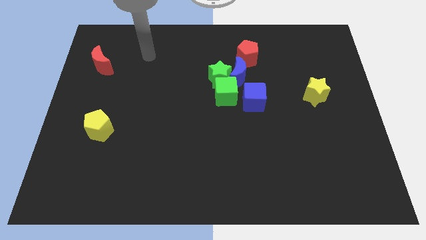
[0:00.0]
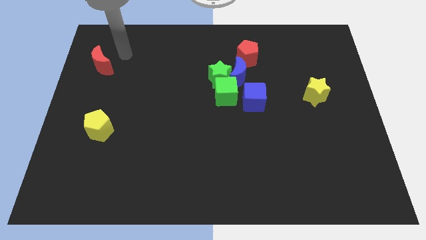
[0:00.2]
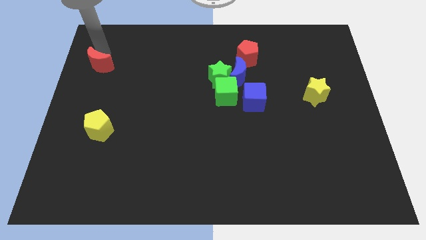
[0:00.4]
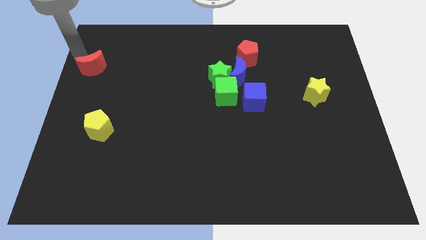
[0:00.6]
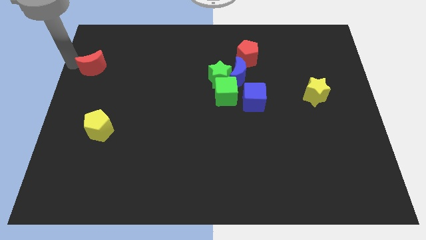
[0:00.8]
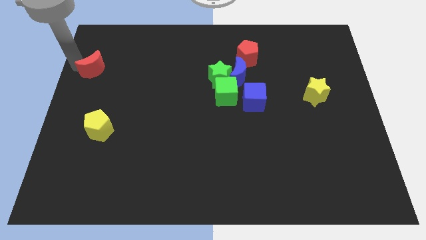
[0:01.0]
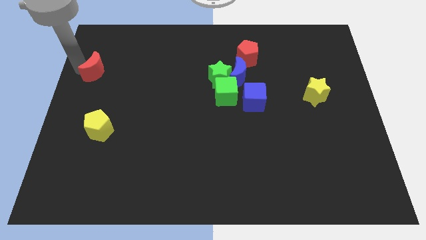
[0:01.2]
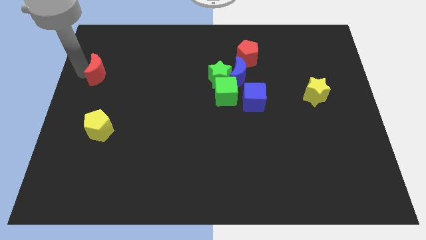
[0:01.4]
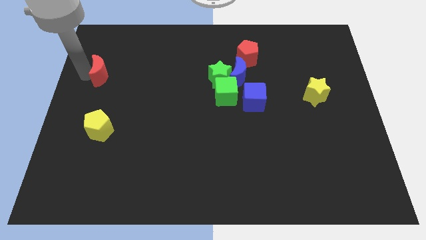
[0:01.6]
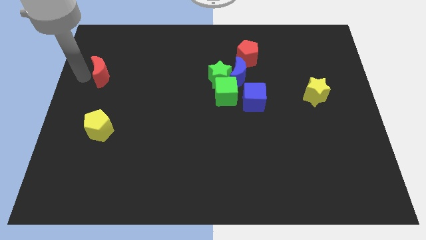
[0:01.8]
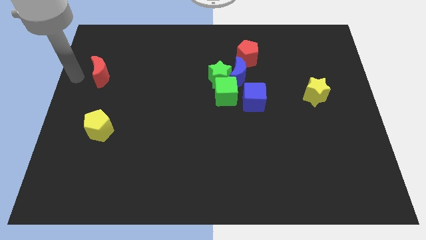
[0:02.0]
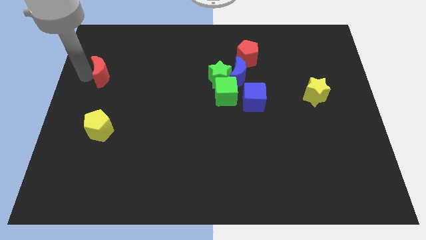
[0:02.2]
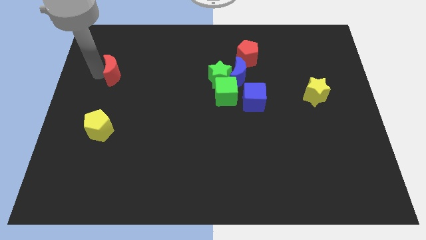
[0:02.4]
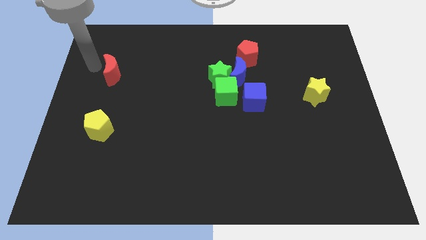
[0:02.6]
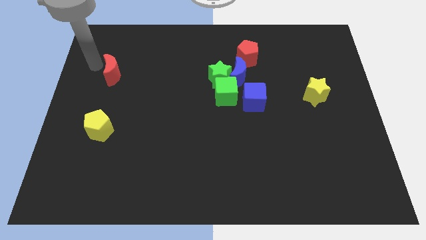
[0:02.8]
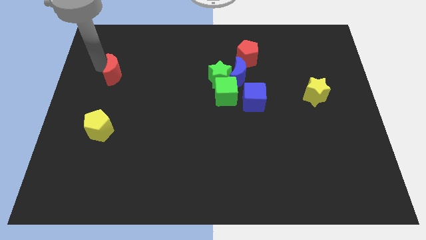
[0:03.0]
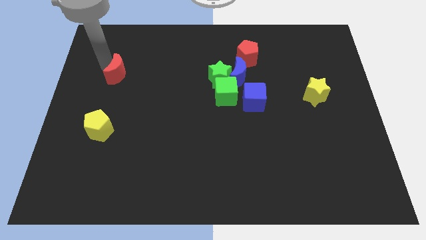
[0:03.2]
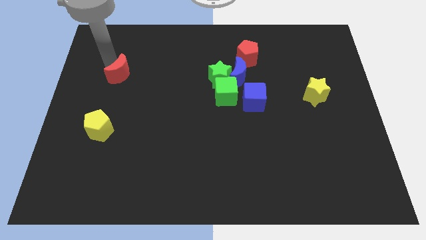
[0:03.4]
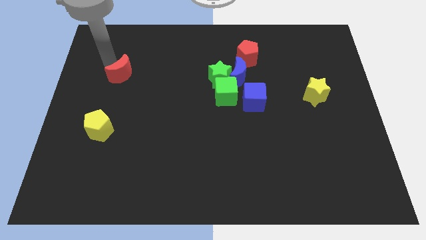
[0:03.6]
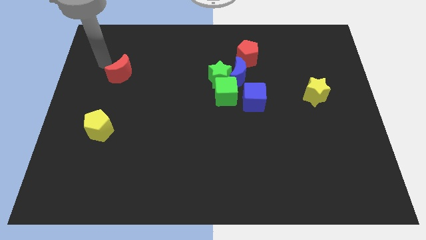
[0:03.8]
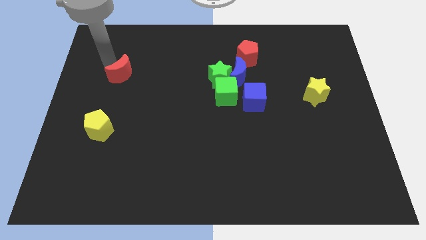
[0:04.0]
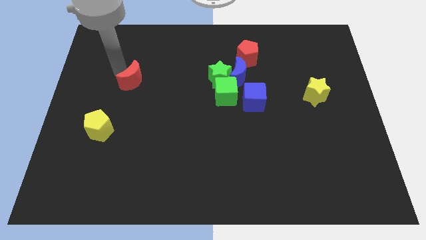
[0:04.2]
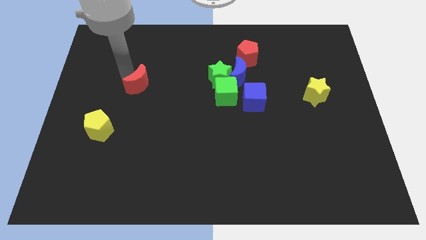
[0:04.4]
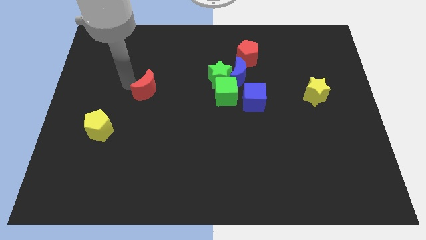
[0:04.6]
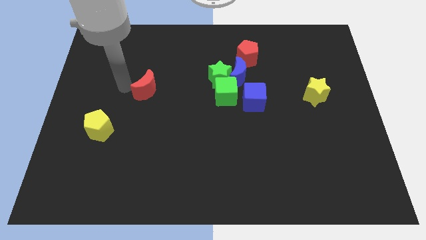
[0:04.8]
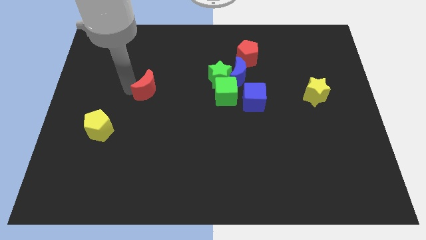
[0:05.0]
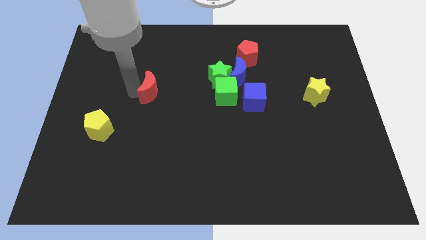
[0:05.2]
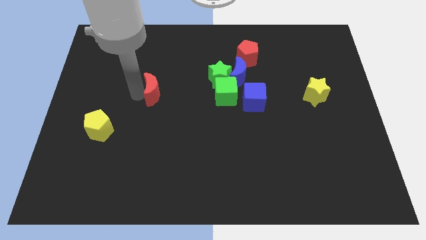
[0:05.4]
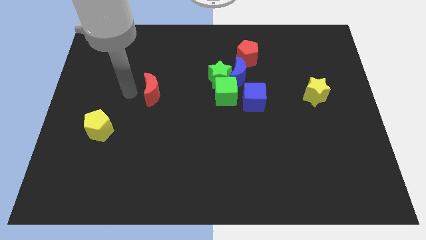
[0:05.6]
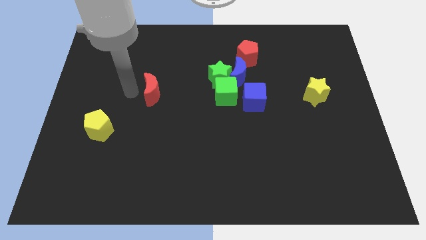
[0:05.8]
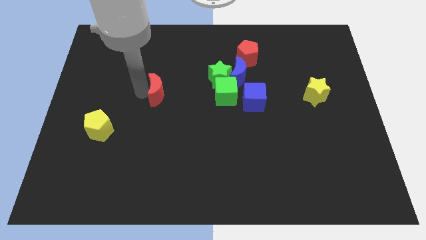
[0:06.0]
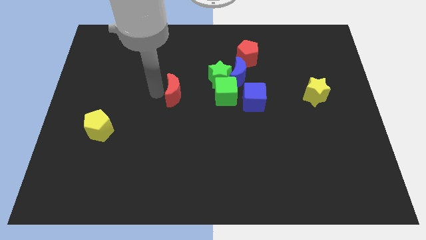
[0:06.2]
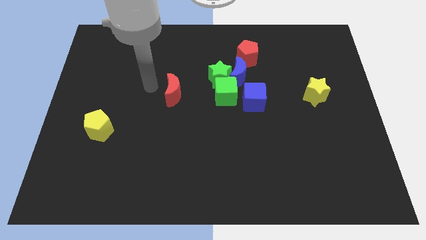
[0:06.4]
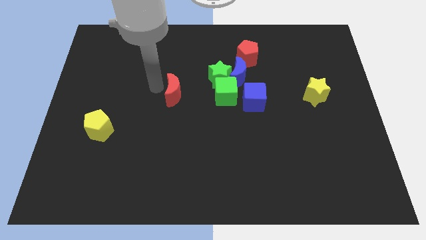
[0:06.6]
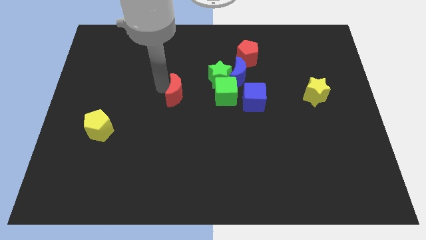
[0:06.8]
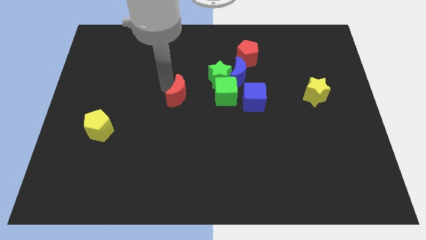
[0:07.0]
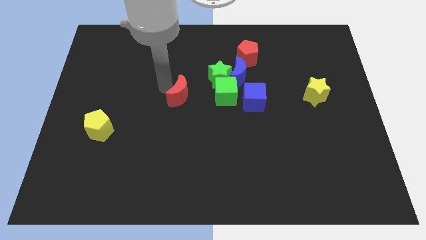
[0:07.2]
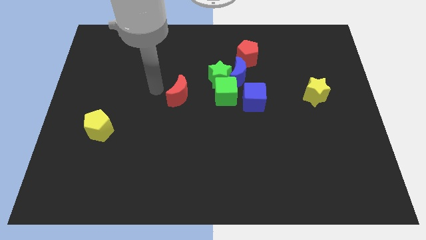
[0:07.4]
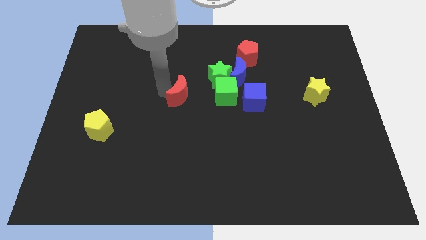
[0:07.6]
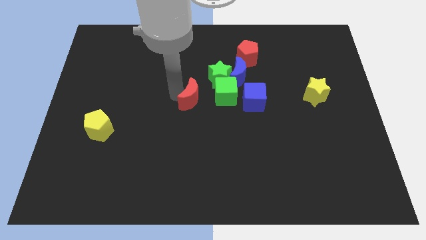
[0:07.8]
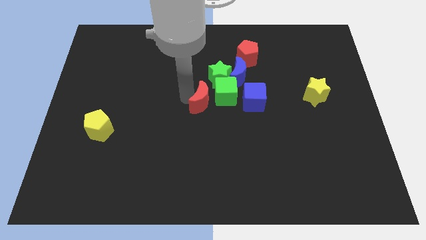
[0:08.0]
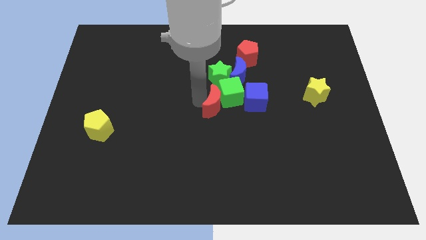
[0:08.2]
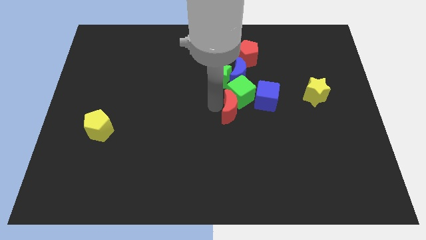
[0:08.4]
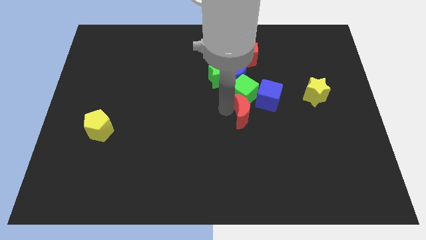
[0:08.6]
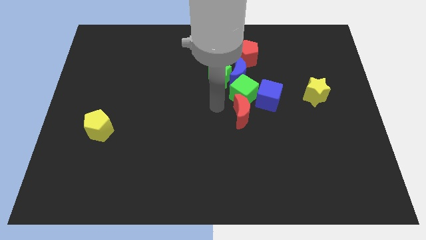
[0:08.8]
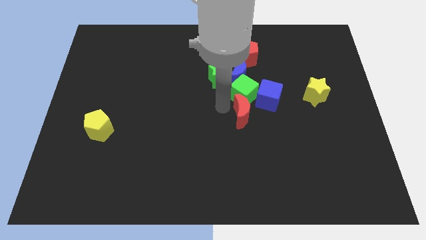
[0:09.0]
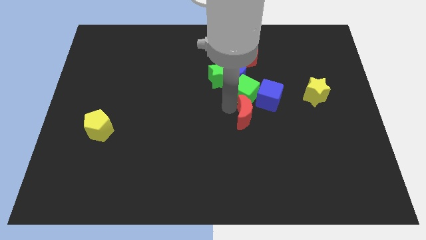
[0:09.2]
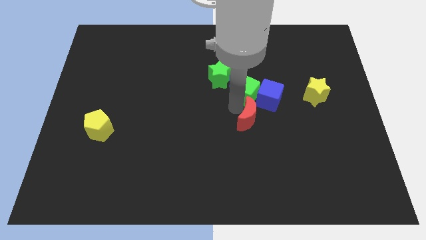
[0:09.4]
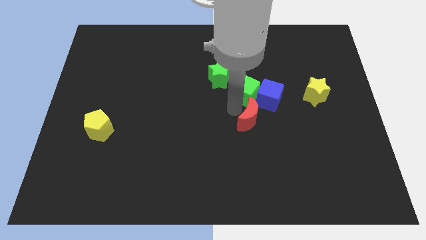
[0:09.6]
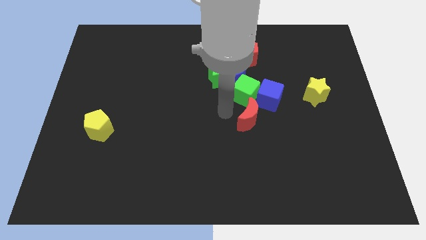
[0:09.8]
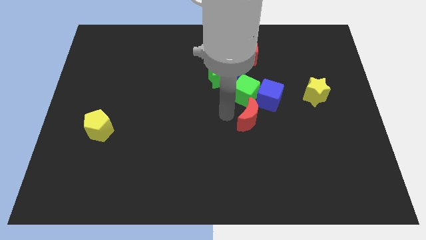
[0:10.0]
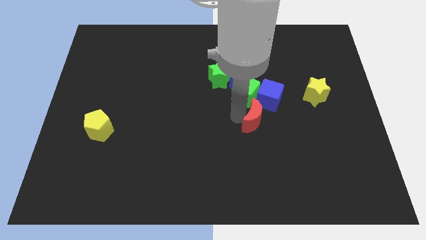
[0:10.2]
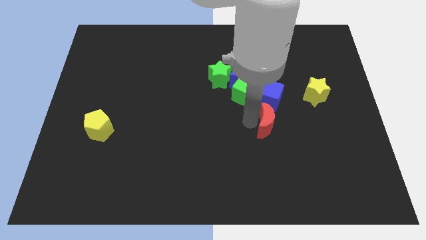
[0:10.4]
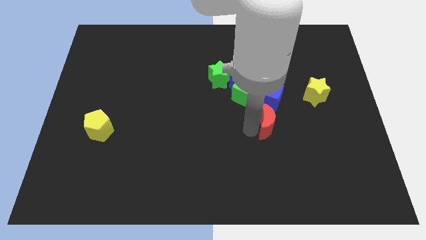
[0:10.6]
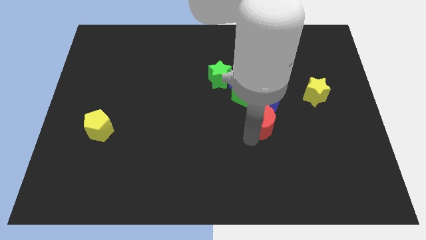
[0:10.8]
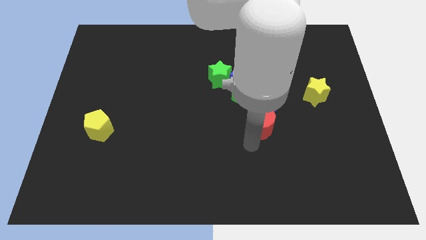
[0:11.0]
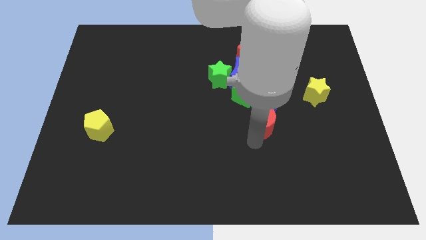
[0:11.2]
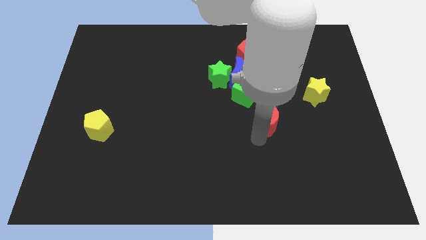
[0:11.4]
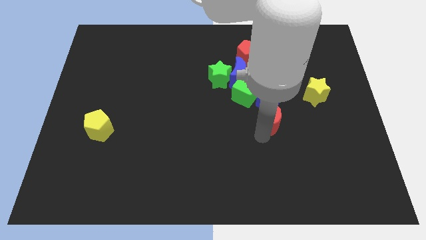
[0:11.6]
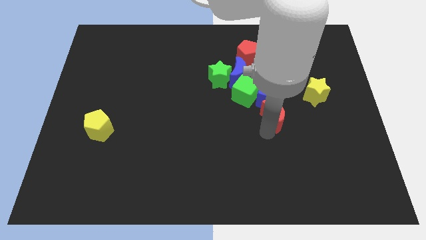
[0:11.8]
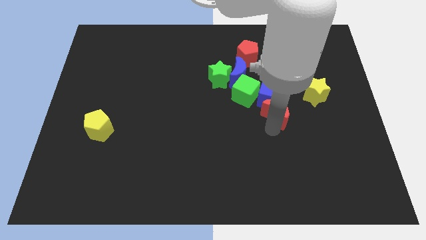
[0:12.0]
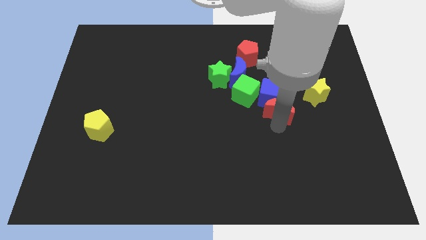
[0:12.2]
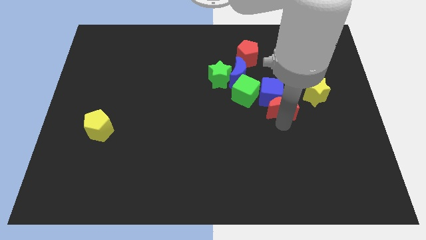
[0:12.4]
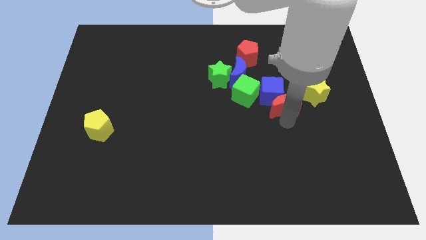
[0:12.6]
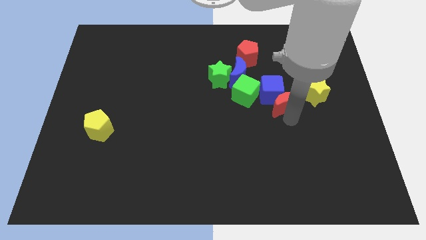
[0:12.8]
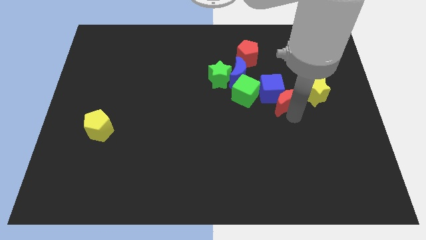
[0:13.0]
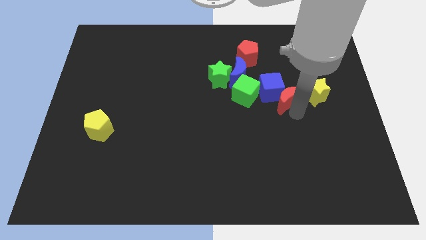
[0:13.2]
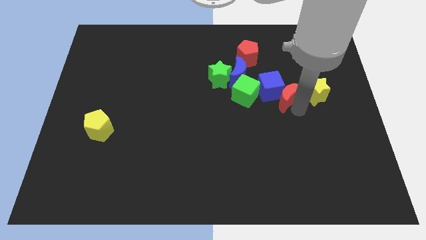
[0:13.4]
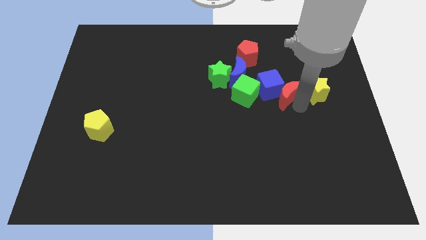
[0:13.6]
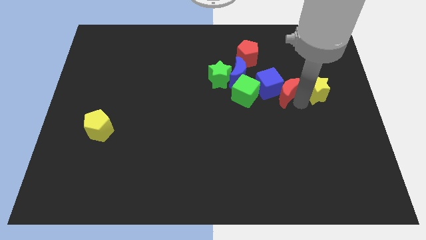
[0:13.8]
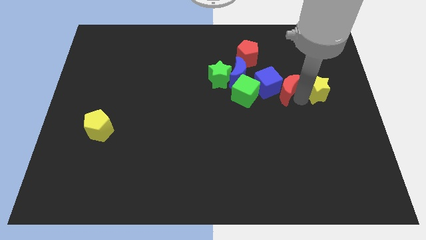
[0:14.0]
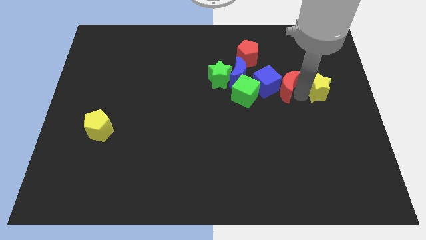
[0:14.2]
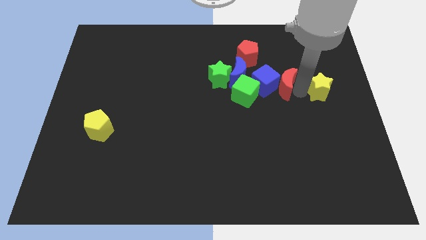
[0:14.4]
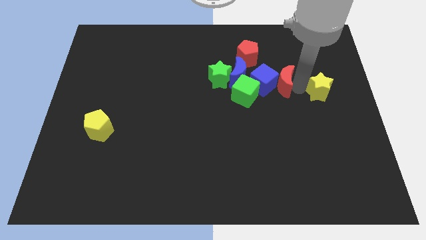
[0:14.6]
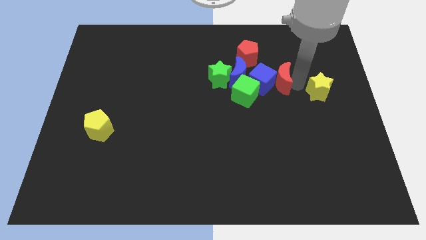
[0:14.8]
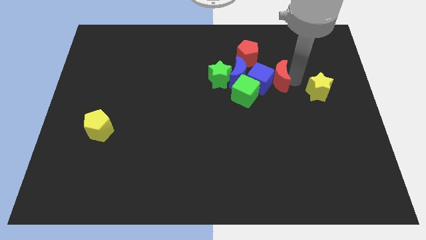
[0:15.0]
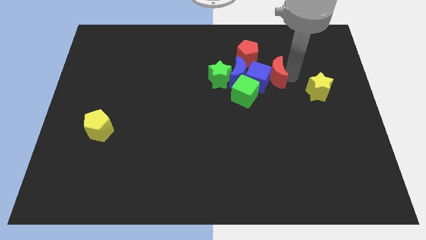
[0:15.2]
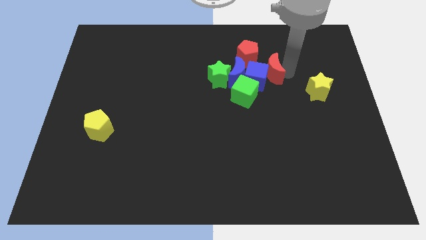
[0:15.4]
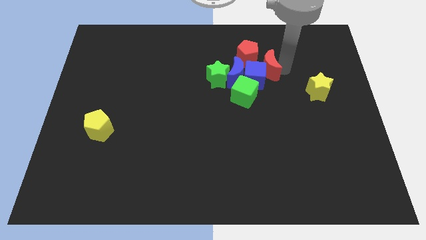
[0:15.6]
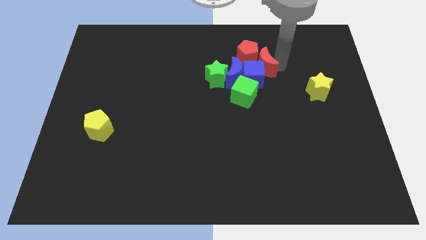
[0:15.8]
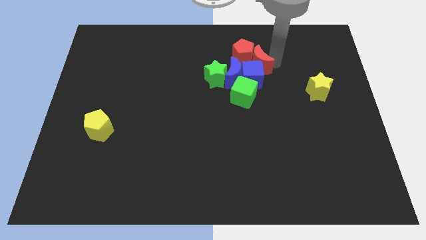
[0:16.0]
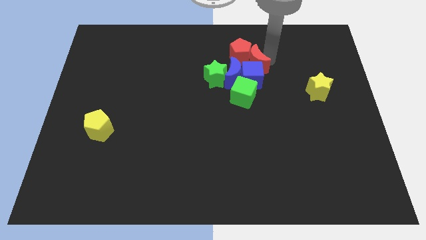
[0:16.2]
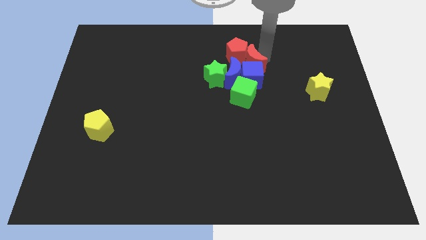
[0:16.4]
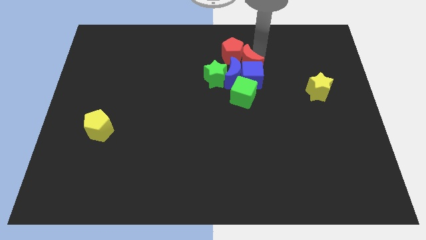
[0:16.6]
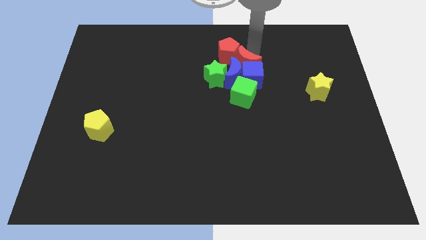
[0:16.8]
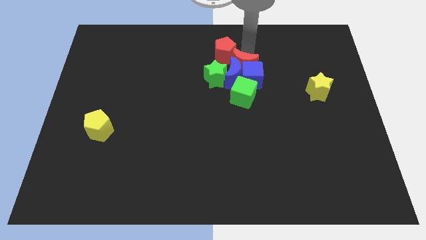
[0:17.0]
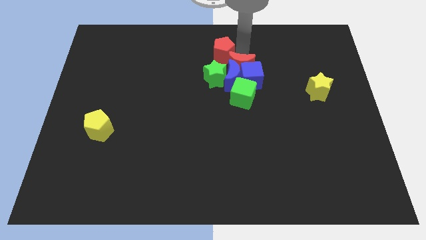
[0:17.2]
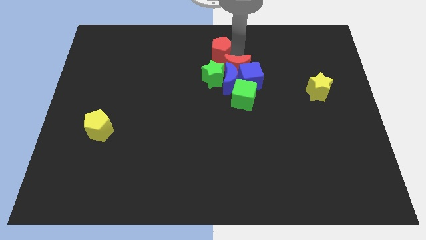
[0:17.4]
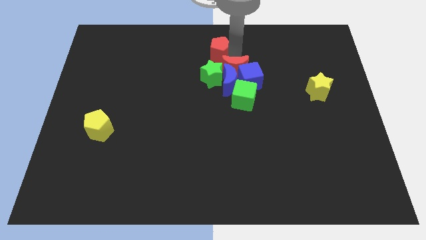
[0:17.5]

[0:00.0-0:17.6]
move the red moon to the top of the blue cube
